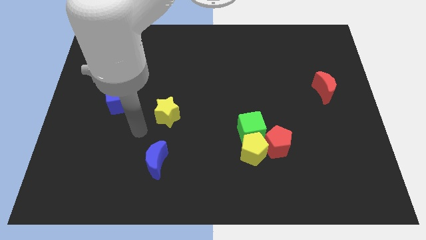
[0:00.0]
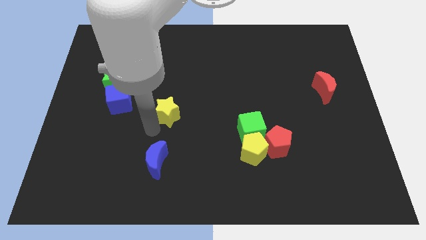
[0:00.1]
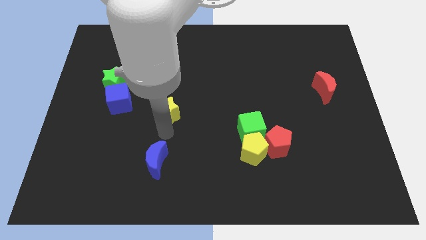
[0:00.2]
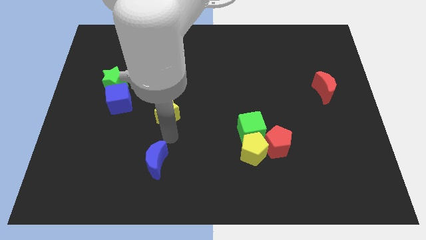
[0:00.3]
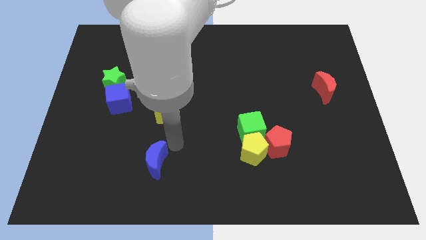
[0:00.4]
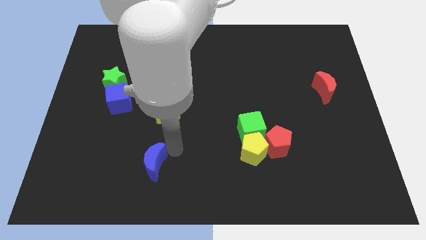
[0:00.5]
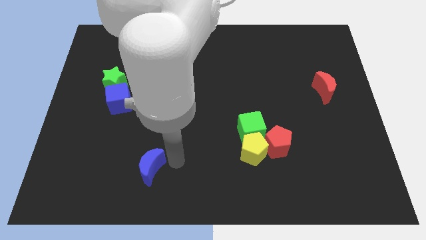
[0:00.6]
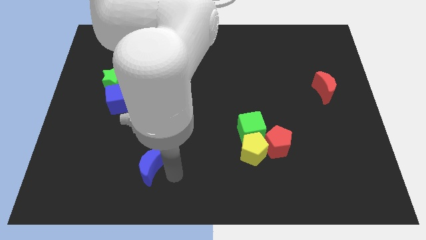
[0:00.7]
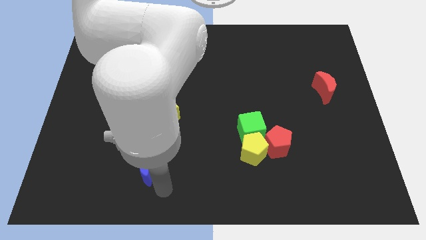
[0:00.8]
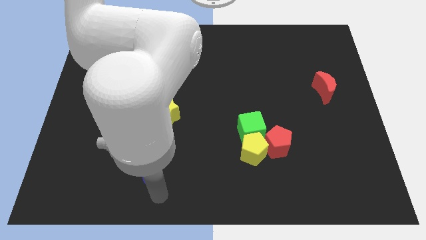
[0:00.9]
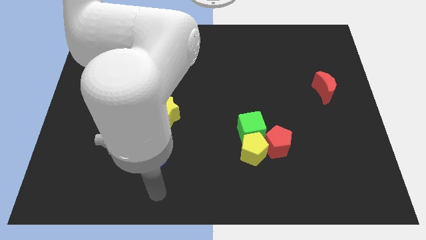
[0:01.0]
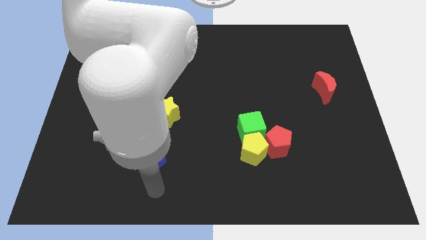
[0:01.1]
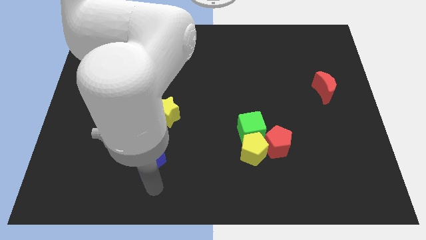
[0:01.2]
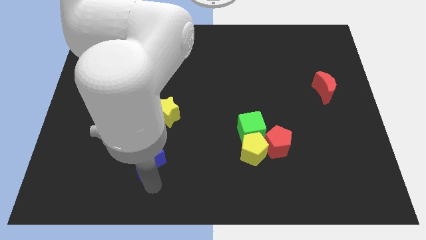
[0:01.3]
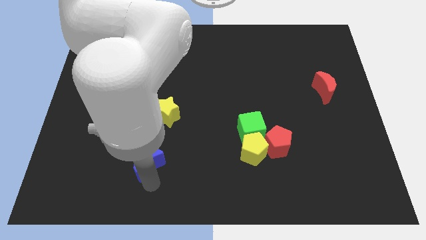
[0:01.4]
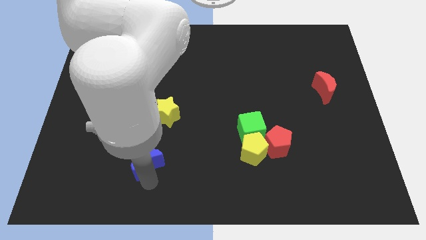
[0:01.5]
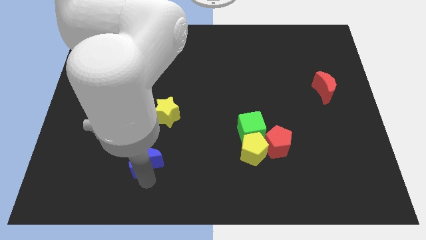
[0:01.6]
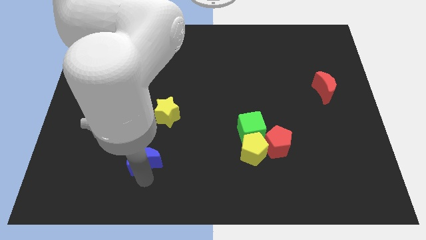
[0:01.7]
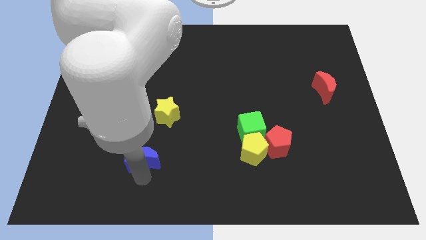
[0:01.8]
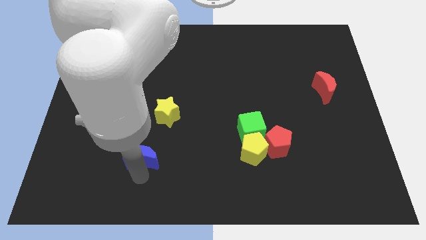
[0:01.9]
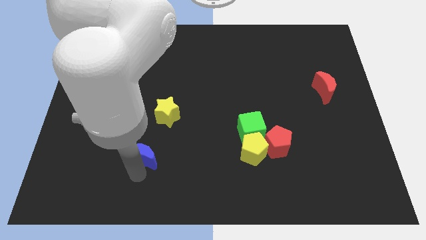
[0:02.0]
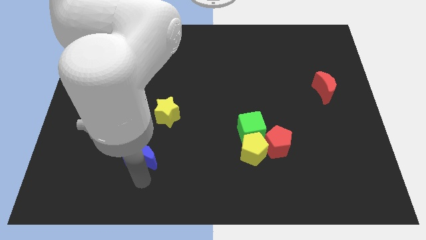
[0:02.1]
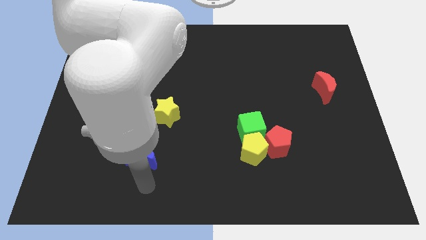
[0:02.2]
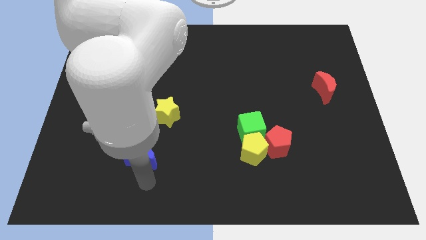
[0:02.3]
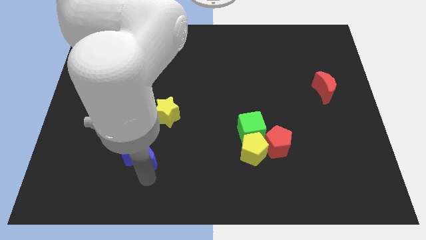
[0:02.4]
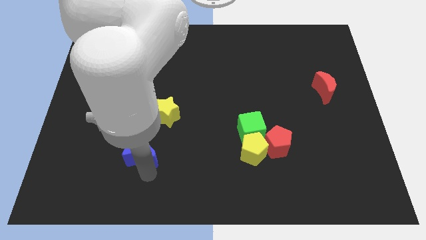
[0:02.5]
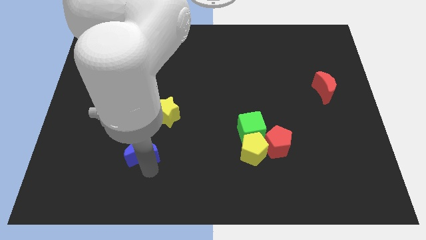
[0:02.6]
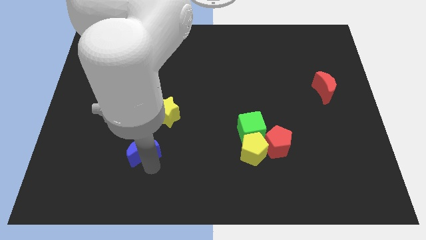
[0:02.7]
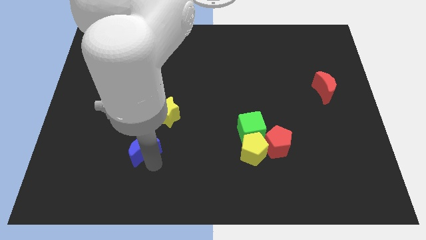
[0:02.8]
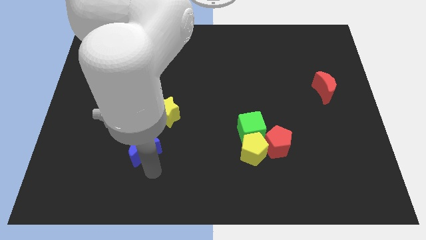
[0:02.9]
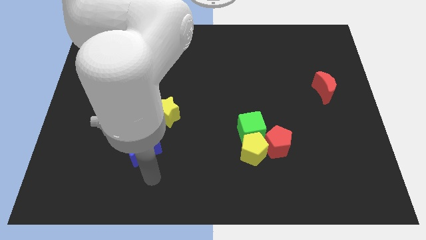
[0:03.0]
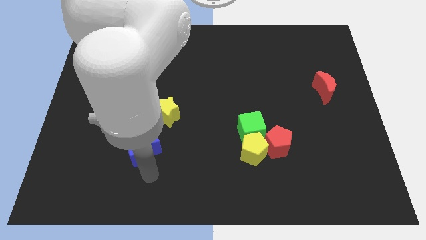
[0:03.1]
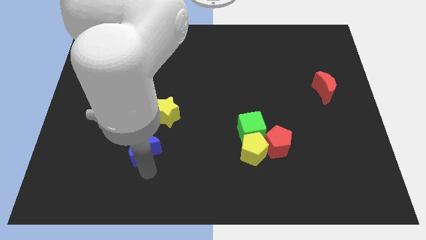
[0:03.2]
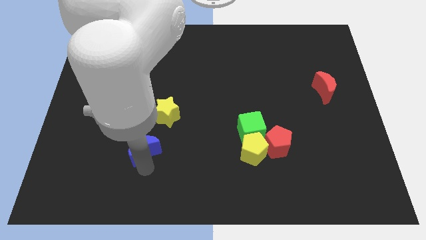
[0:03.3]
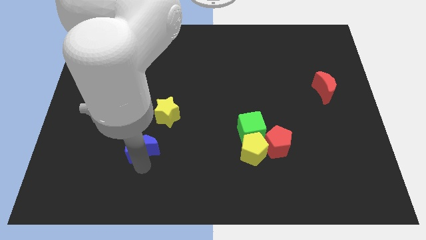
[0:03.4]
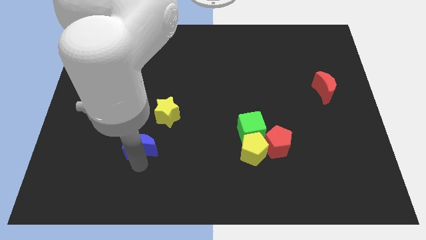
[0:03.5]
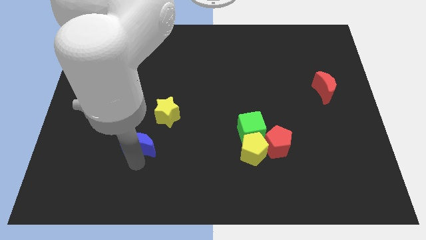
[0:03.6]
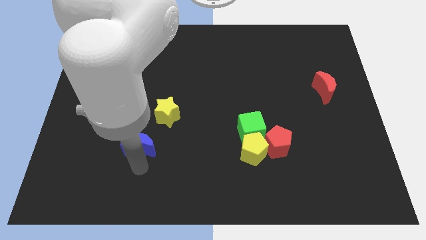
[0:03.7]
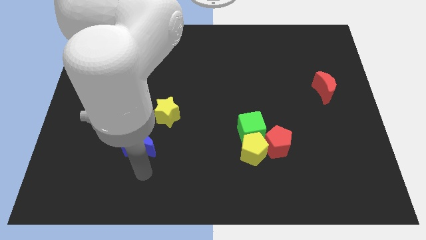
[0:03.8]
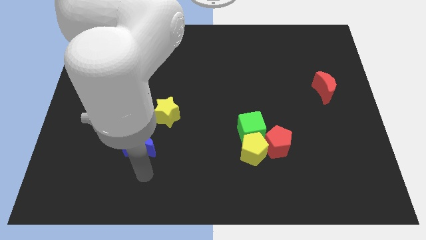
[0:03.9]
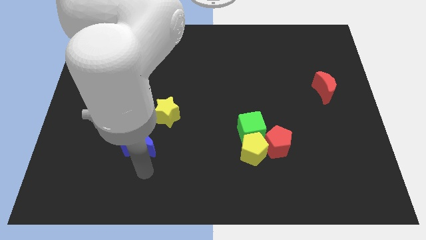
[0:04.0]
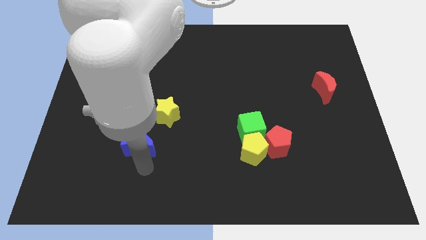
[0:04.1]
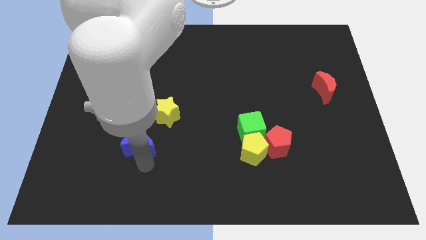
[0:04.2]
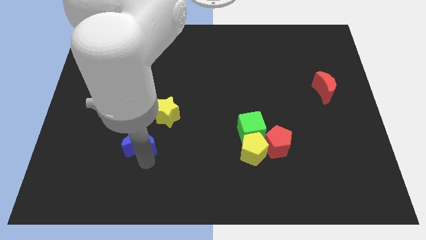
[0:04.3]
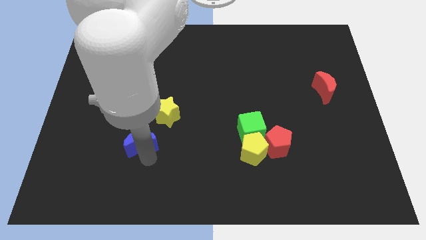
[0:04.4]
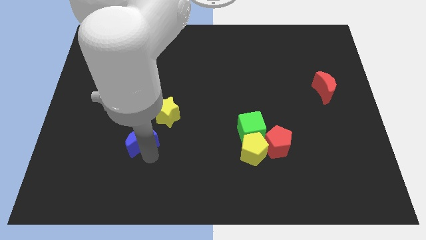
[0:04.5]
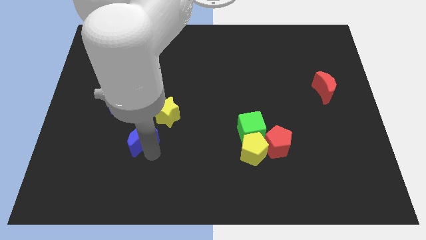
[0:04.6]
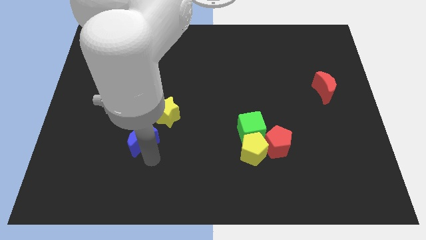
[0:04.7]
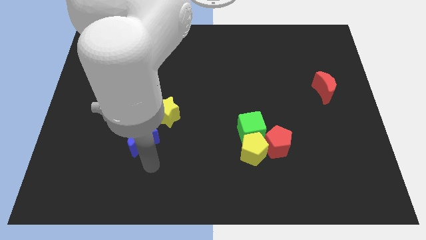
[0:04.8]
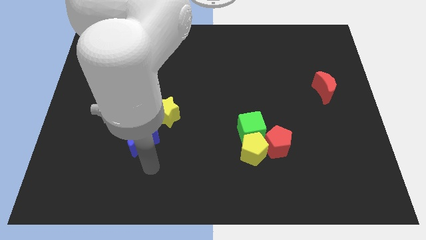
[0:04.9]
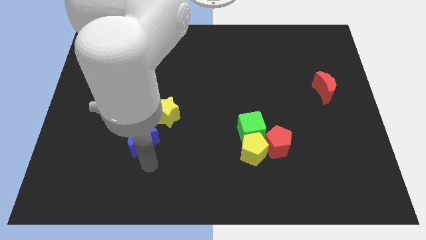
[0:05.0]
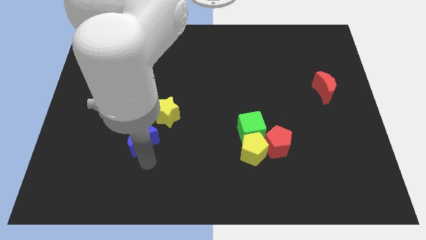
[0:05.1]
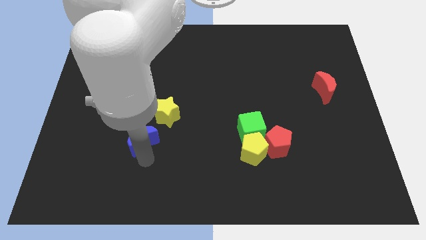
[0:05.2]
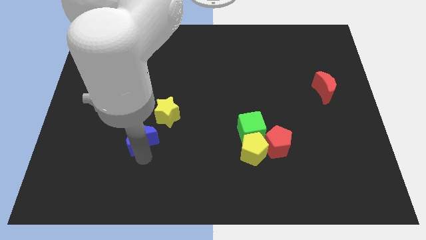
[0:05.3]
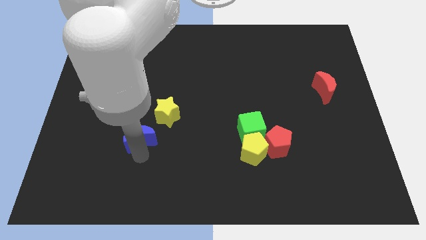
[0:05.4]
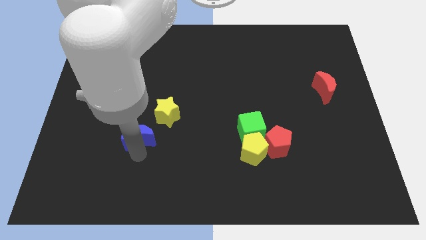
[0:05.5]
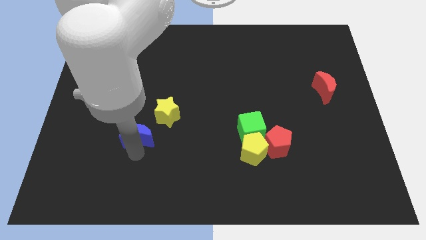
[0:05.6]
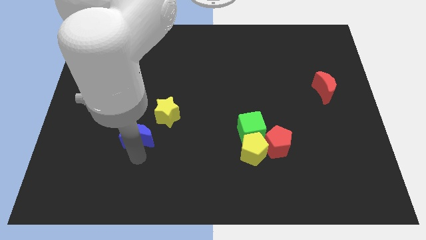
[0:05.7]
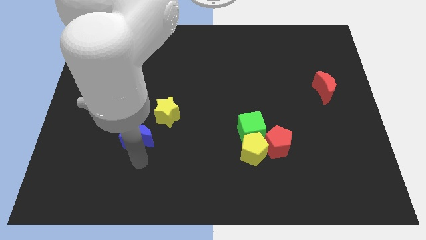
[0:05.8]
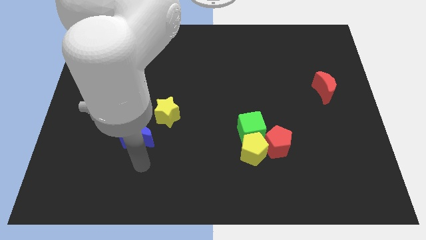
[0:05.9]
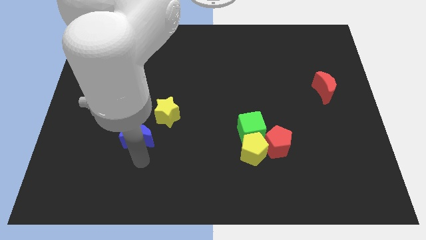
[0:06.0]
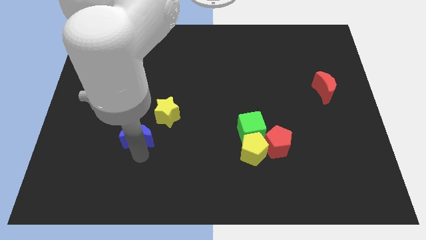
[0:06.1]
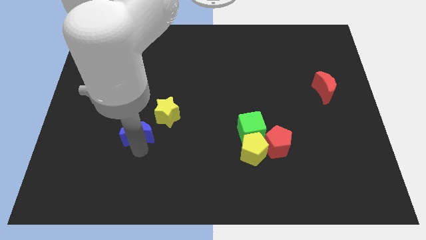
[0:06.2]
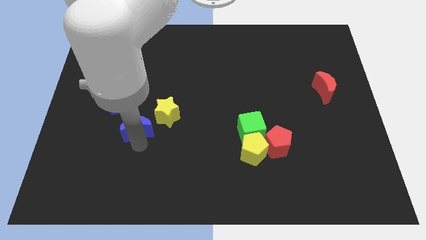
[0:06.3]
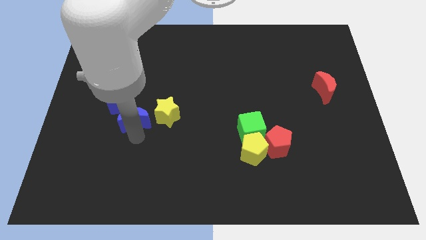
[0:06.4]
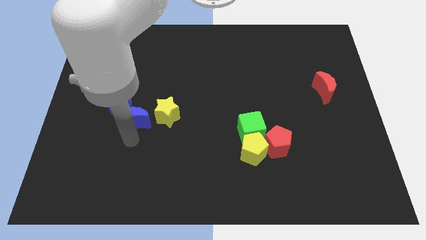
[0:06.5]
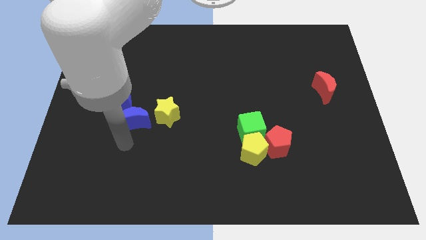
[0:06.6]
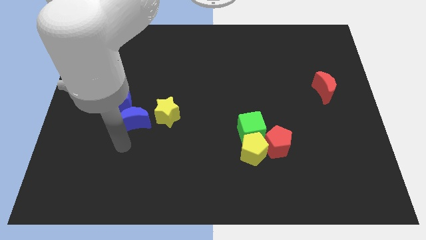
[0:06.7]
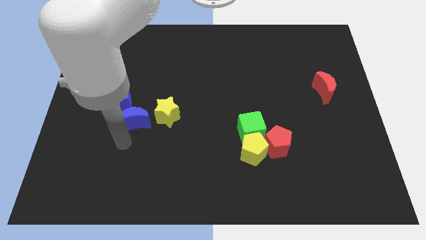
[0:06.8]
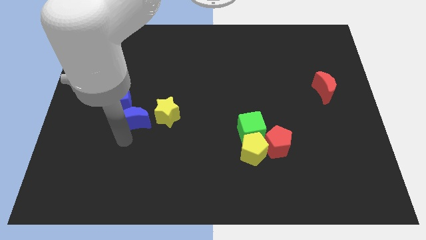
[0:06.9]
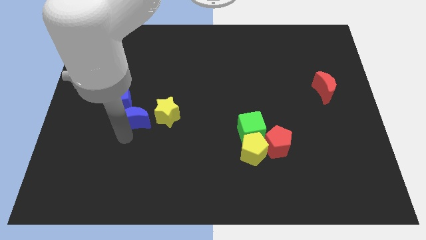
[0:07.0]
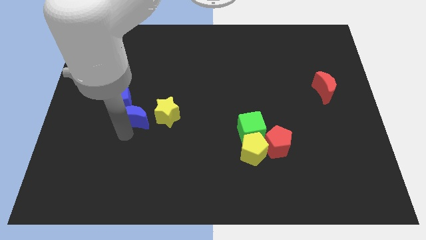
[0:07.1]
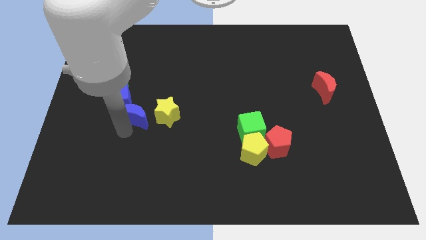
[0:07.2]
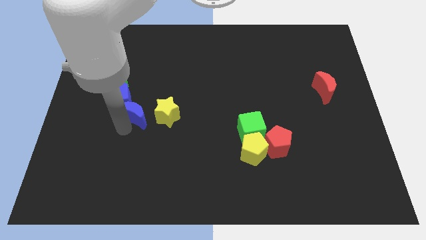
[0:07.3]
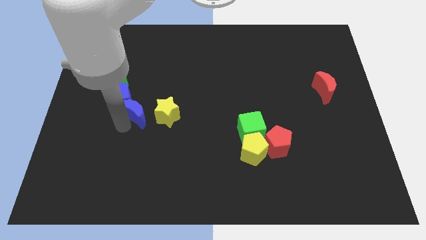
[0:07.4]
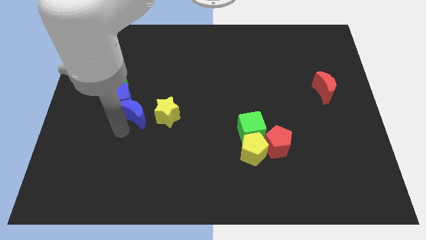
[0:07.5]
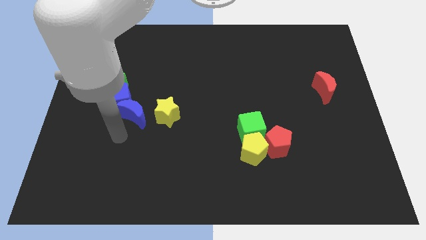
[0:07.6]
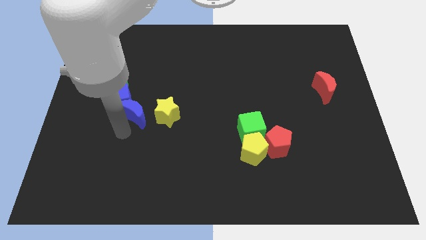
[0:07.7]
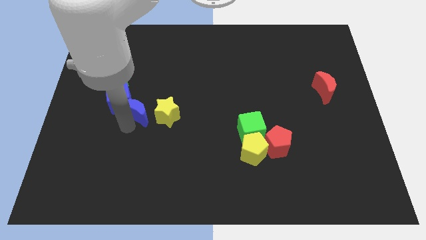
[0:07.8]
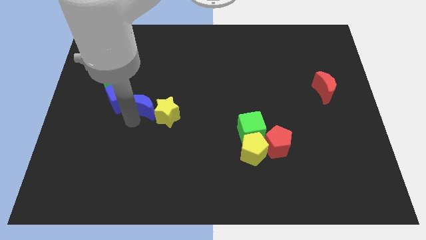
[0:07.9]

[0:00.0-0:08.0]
push the blue moon to the top left of the yellow star
